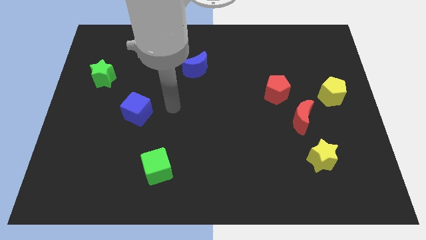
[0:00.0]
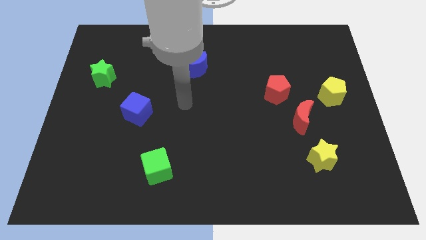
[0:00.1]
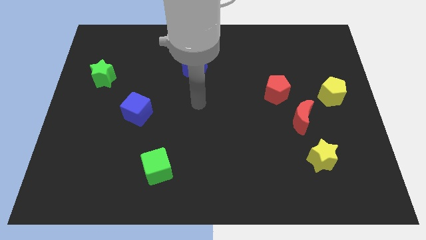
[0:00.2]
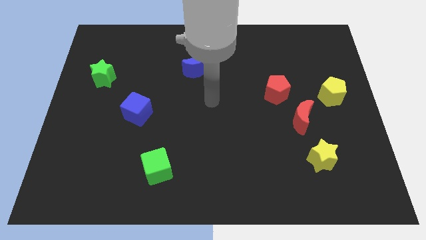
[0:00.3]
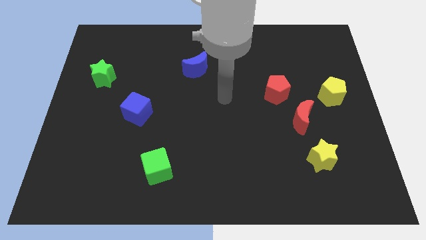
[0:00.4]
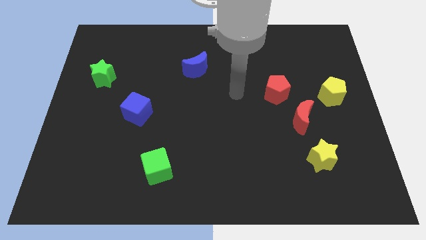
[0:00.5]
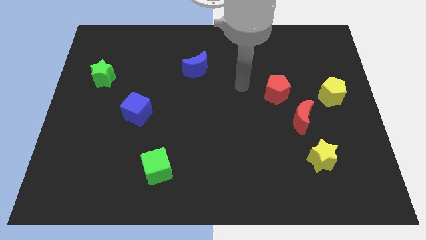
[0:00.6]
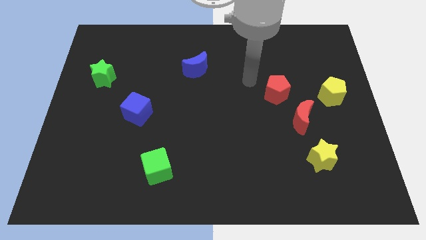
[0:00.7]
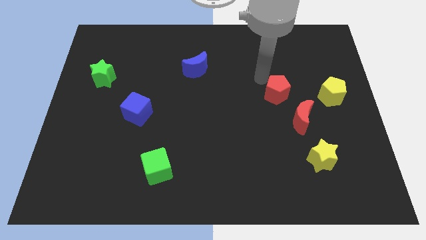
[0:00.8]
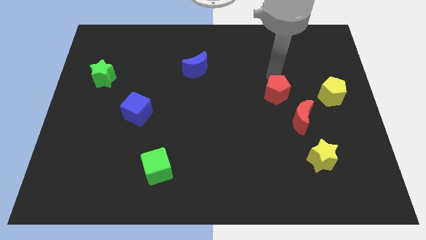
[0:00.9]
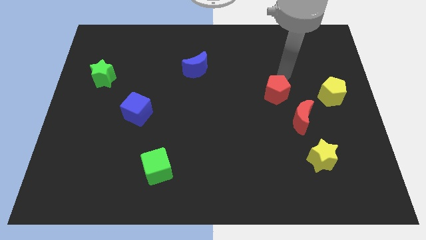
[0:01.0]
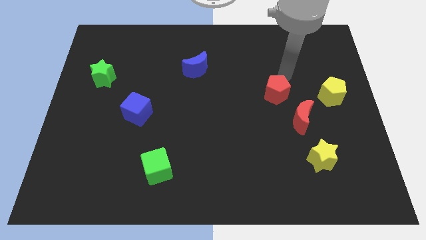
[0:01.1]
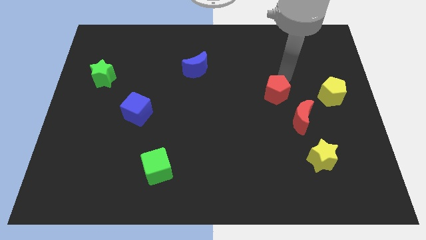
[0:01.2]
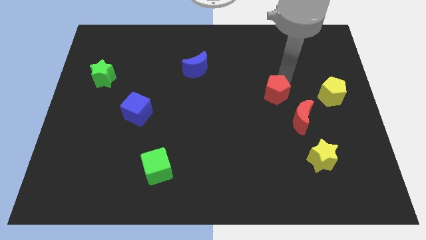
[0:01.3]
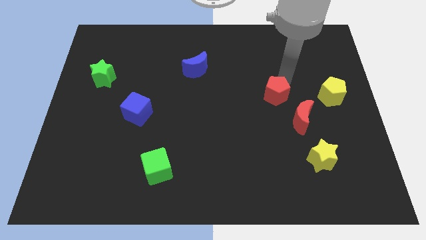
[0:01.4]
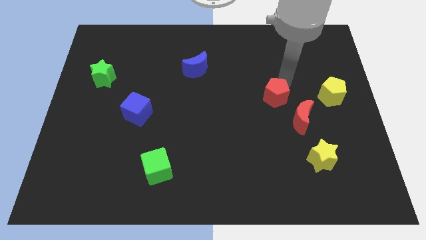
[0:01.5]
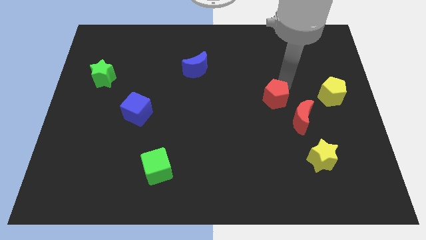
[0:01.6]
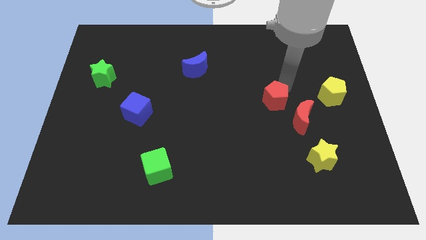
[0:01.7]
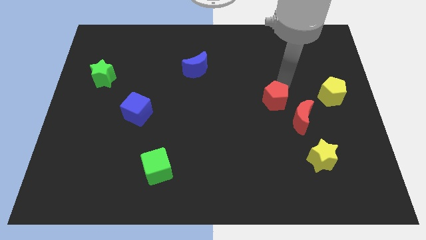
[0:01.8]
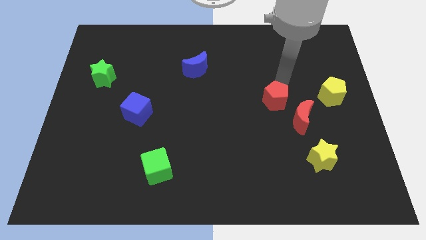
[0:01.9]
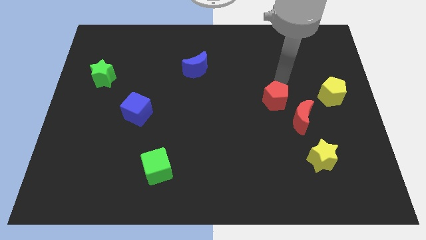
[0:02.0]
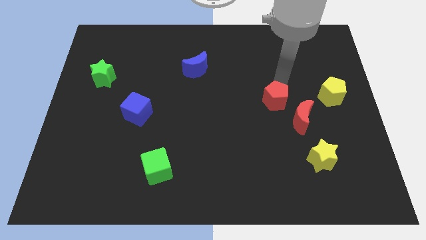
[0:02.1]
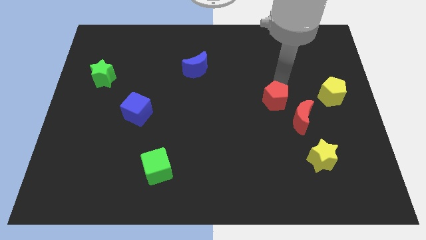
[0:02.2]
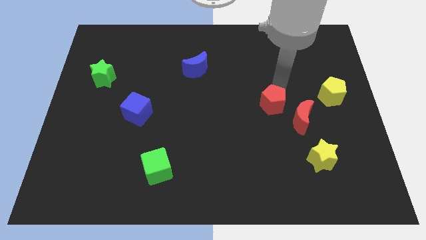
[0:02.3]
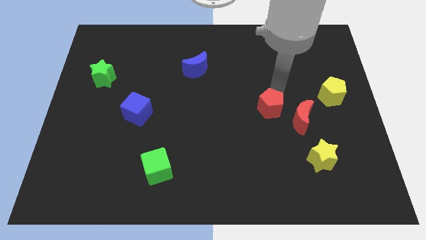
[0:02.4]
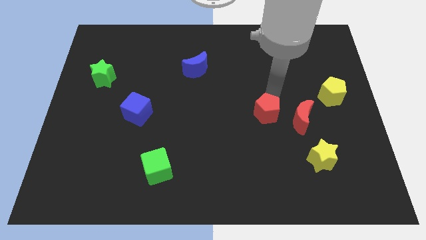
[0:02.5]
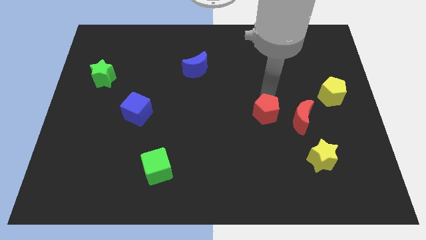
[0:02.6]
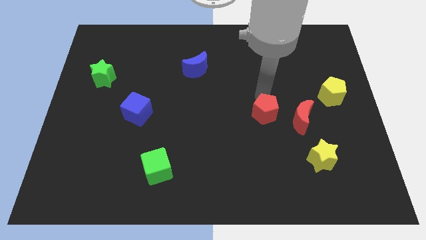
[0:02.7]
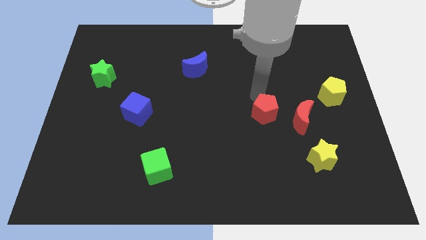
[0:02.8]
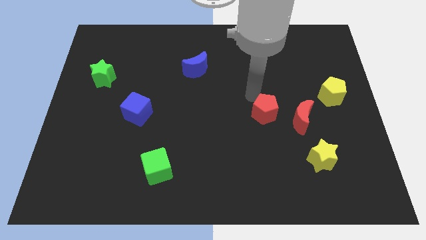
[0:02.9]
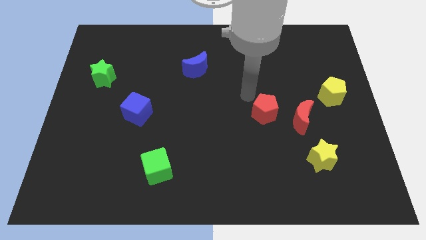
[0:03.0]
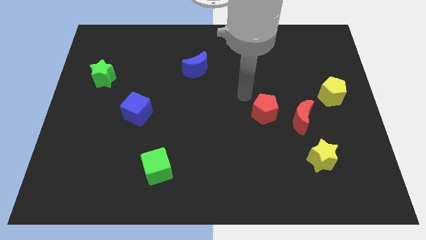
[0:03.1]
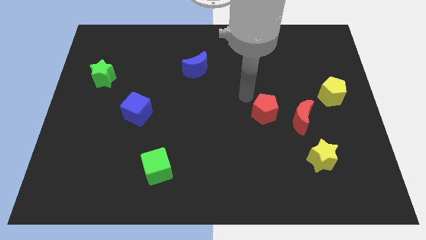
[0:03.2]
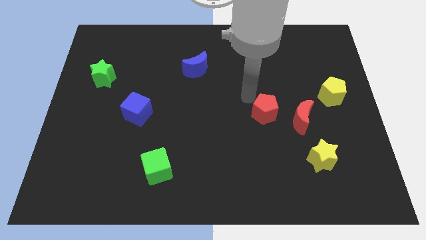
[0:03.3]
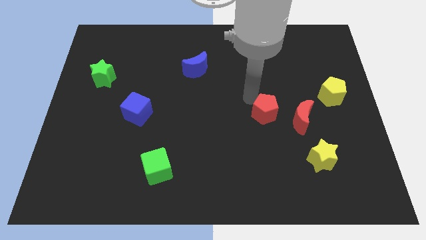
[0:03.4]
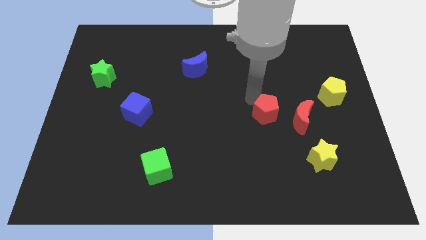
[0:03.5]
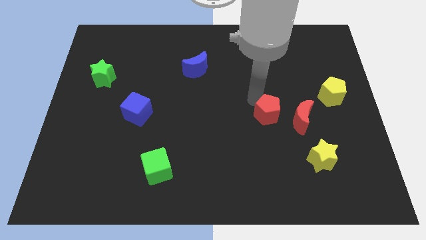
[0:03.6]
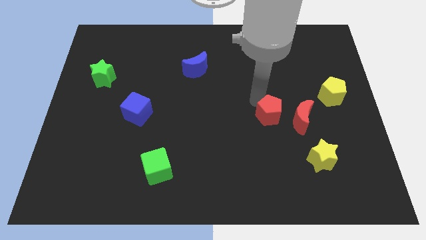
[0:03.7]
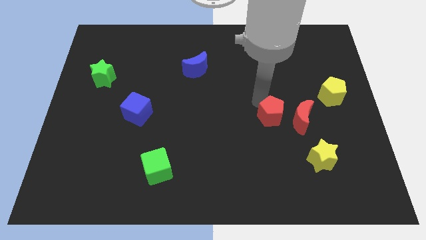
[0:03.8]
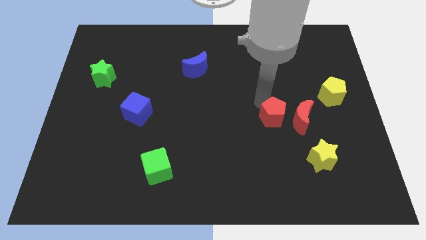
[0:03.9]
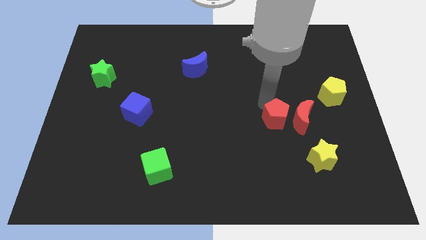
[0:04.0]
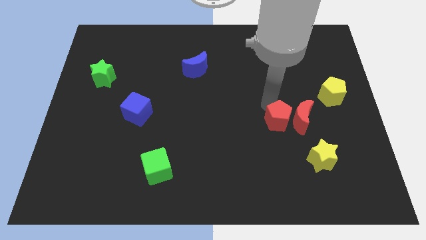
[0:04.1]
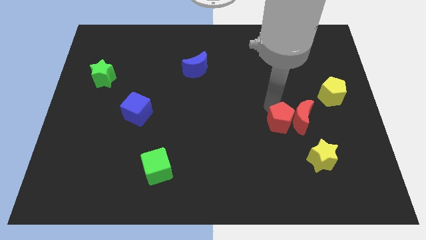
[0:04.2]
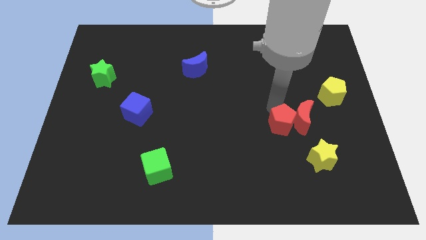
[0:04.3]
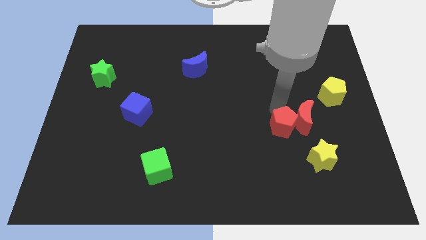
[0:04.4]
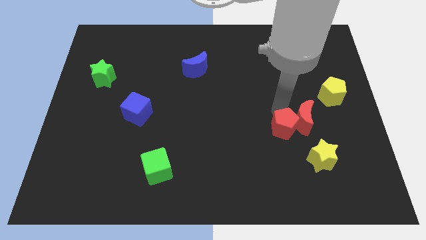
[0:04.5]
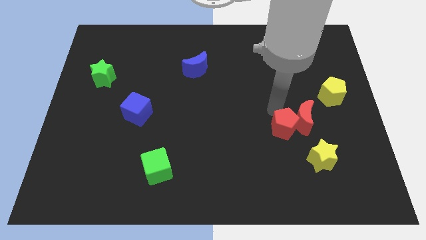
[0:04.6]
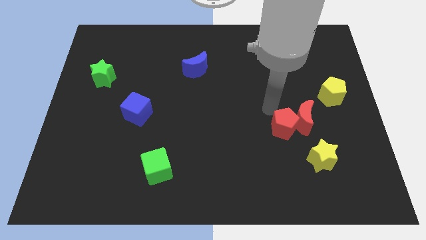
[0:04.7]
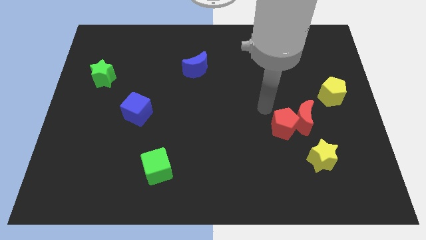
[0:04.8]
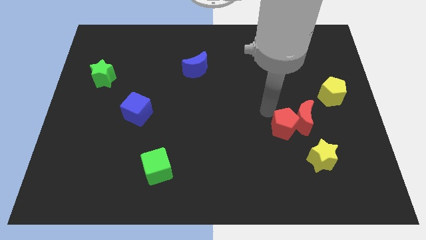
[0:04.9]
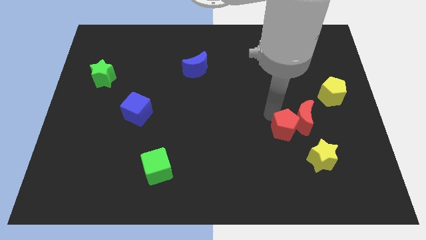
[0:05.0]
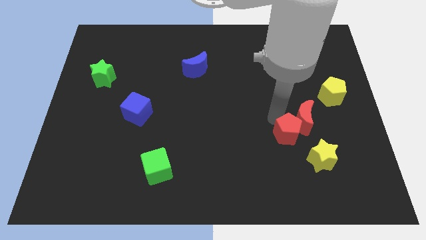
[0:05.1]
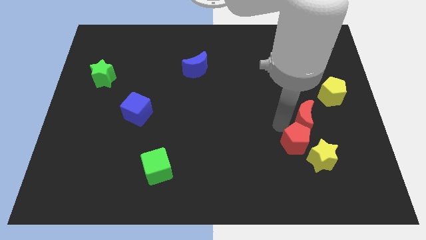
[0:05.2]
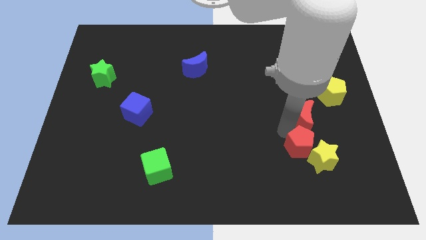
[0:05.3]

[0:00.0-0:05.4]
slide the red pentagon next to the yellow star

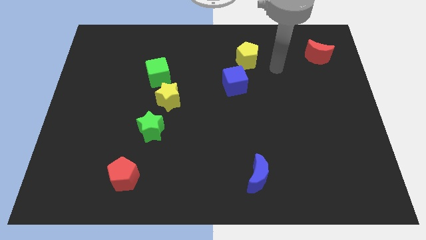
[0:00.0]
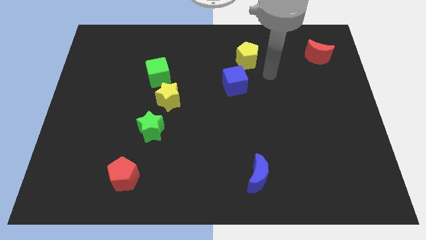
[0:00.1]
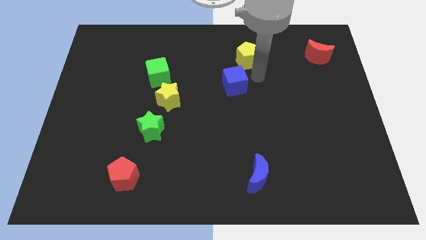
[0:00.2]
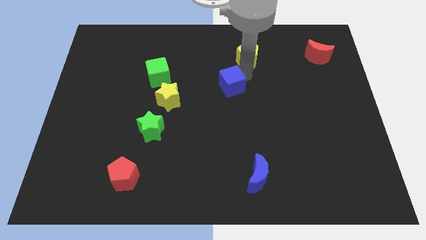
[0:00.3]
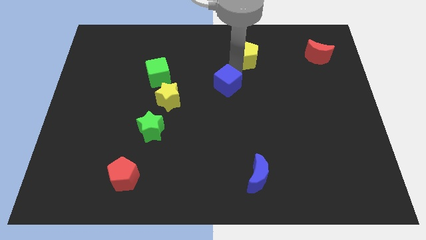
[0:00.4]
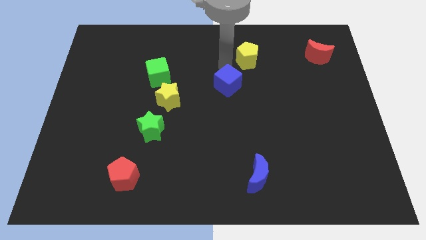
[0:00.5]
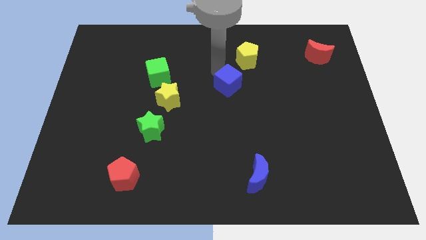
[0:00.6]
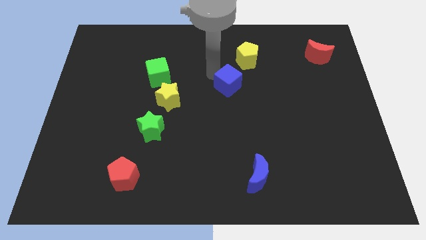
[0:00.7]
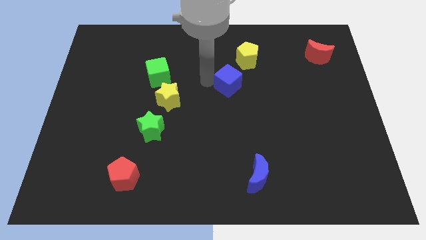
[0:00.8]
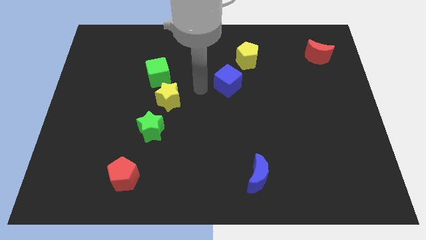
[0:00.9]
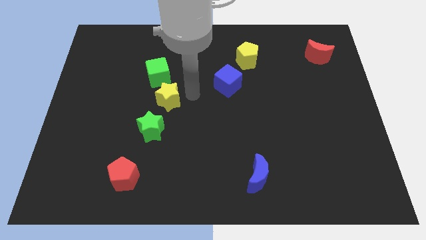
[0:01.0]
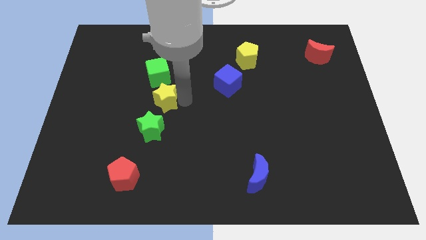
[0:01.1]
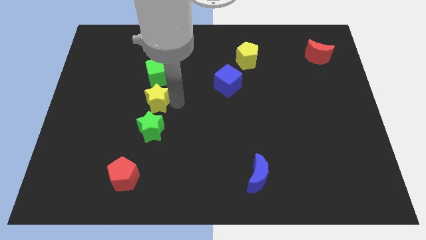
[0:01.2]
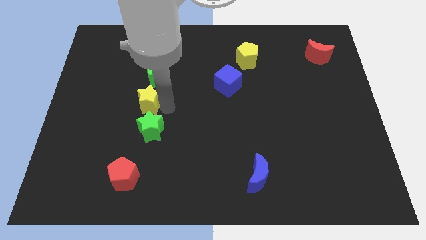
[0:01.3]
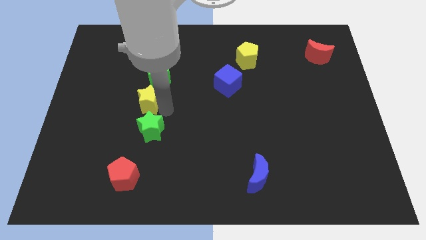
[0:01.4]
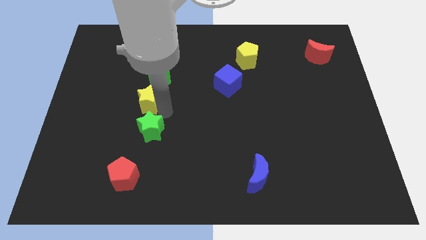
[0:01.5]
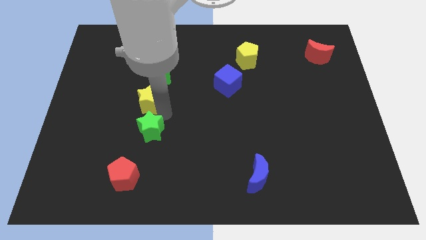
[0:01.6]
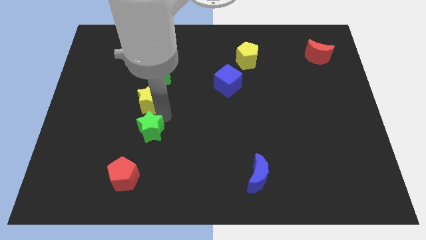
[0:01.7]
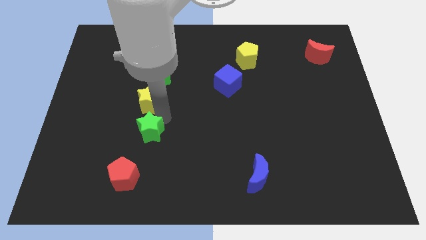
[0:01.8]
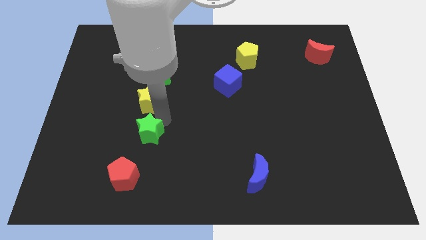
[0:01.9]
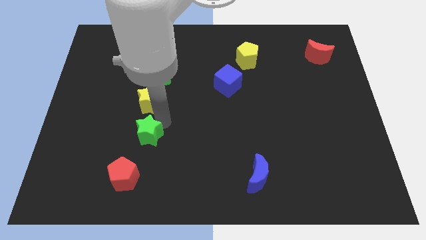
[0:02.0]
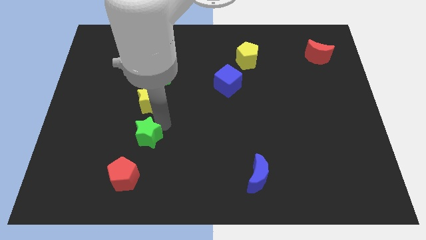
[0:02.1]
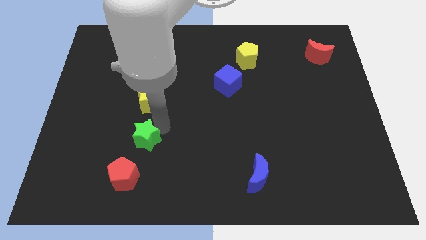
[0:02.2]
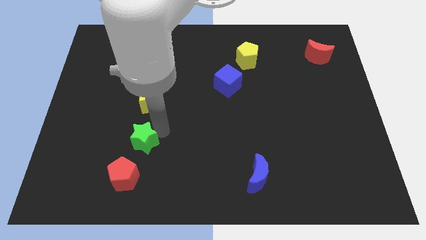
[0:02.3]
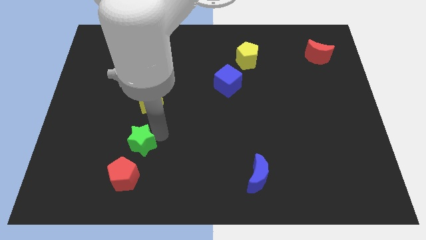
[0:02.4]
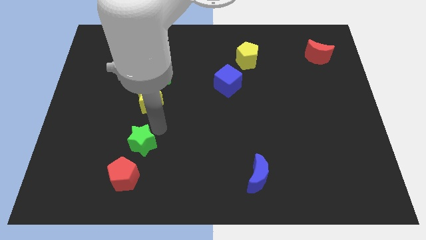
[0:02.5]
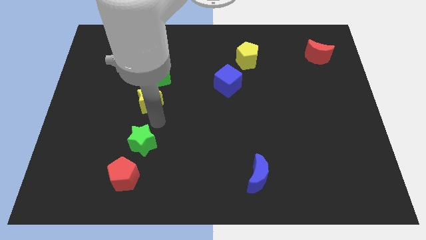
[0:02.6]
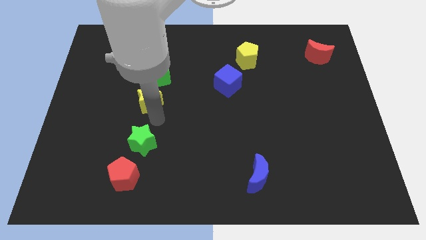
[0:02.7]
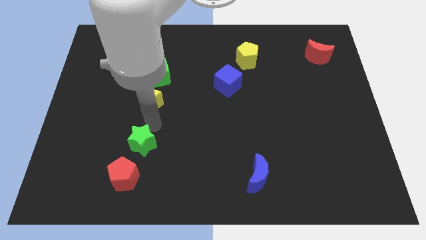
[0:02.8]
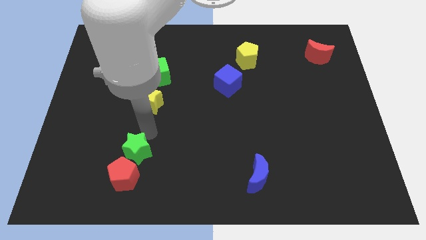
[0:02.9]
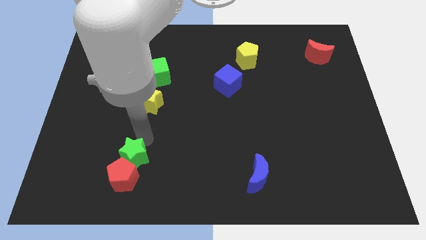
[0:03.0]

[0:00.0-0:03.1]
slide the green star towards the red pentagon
